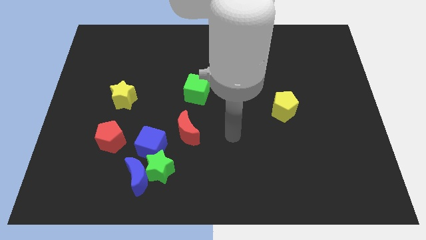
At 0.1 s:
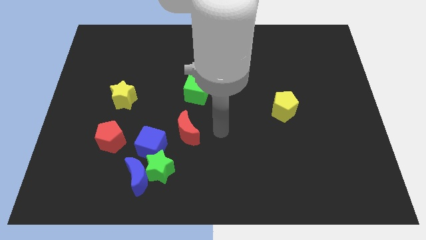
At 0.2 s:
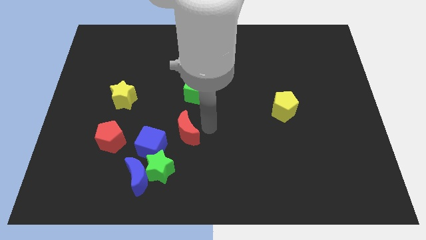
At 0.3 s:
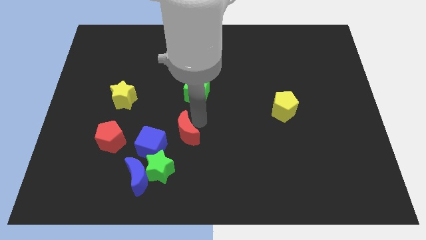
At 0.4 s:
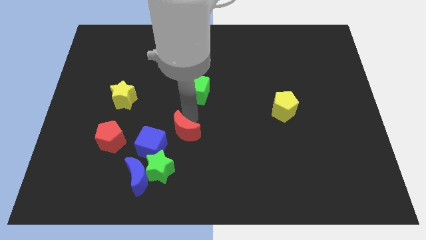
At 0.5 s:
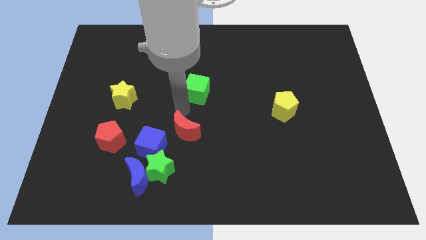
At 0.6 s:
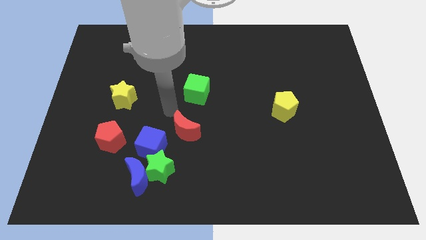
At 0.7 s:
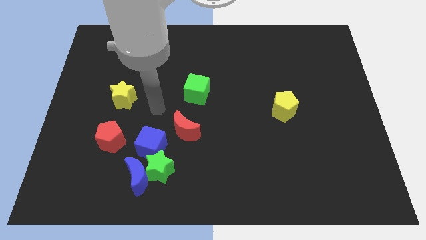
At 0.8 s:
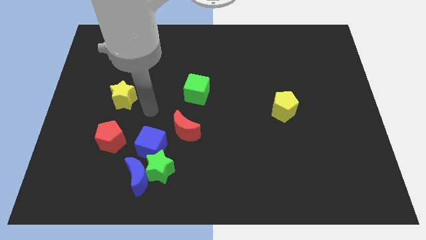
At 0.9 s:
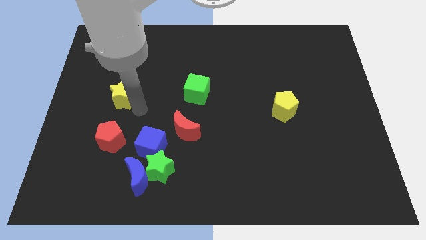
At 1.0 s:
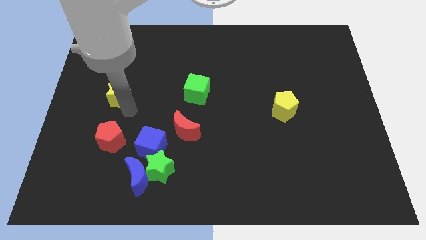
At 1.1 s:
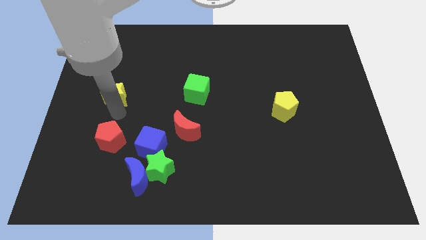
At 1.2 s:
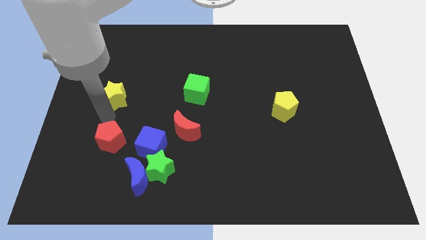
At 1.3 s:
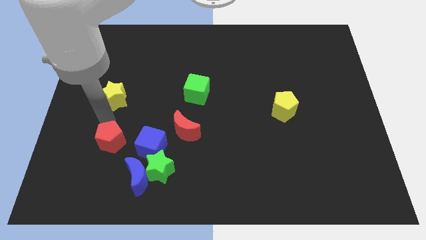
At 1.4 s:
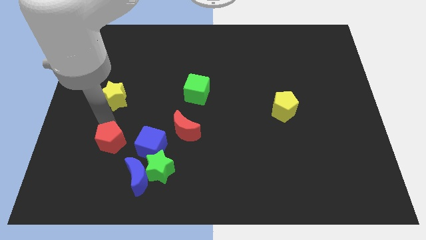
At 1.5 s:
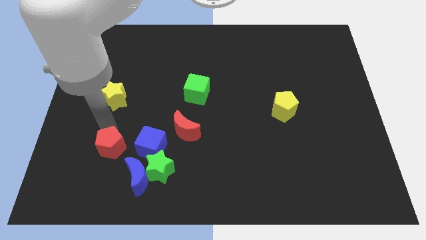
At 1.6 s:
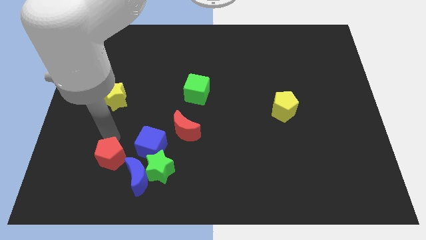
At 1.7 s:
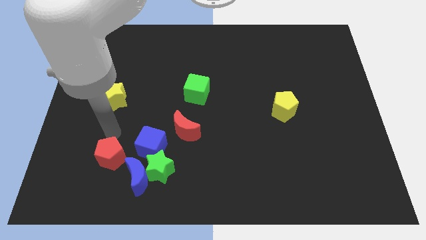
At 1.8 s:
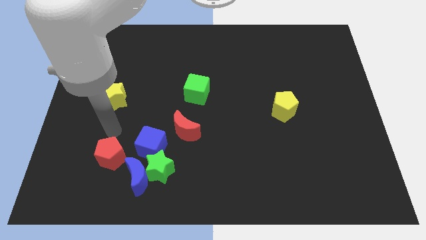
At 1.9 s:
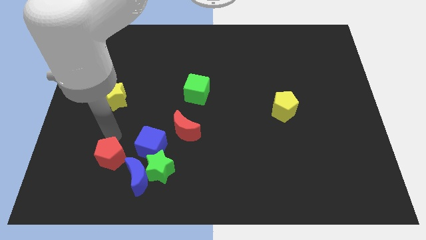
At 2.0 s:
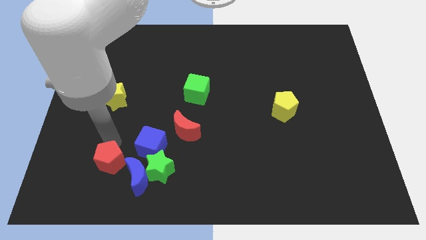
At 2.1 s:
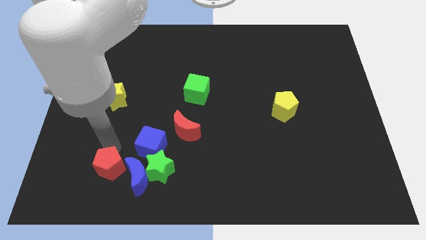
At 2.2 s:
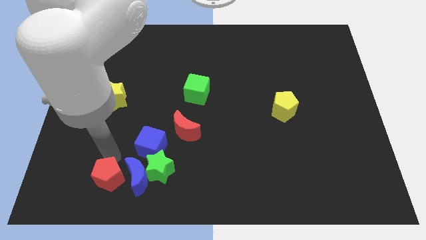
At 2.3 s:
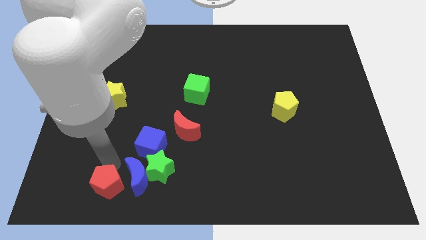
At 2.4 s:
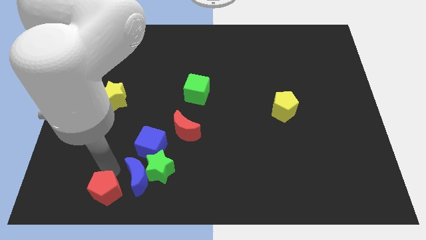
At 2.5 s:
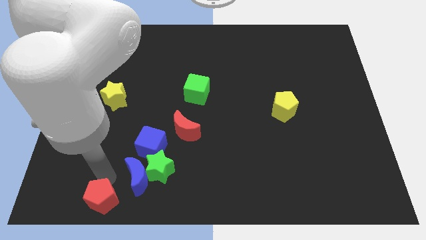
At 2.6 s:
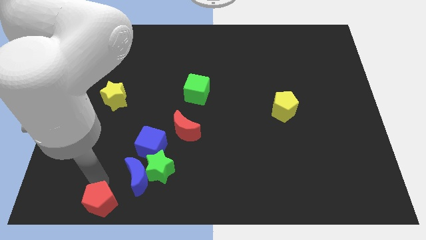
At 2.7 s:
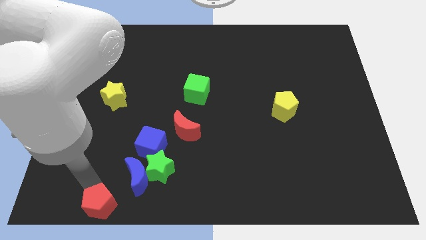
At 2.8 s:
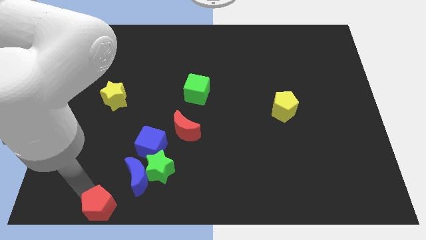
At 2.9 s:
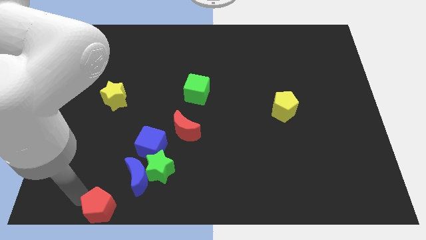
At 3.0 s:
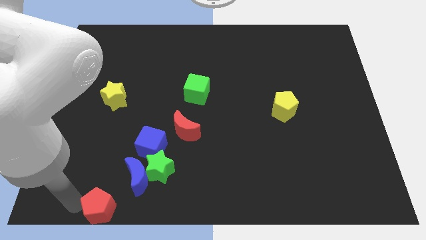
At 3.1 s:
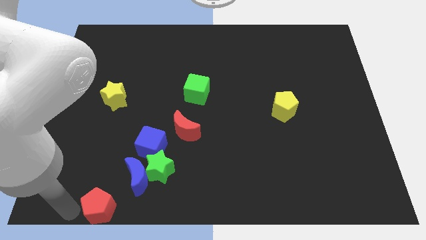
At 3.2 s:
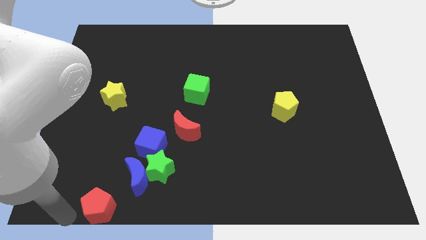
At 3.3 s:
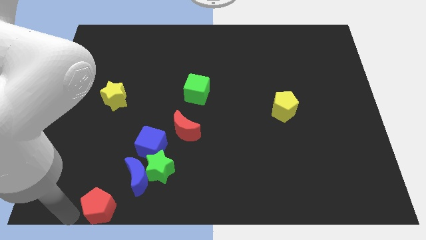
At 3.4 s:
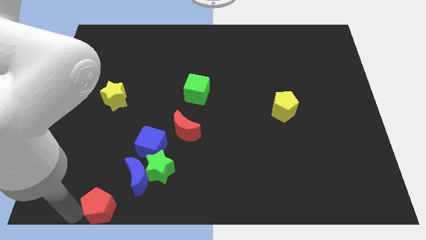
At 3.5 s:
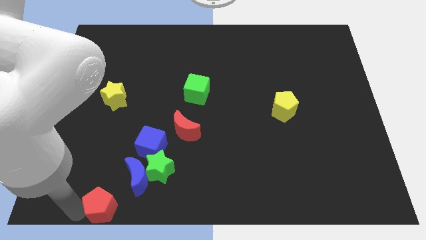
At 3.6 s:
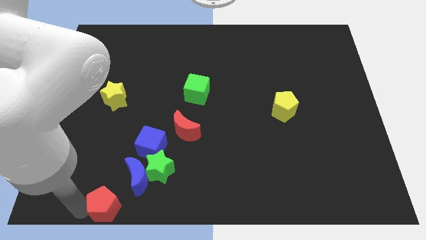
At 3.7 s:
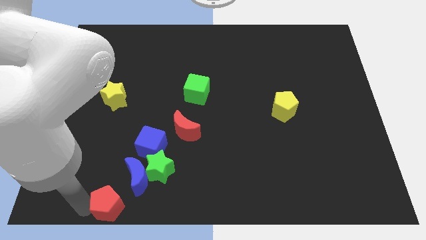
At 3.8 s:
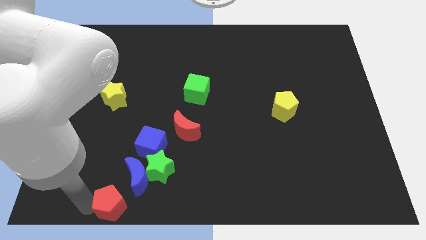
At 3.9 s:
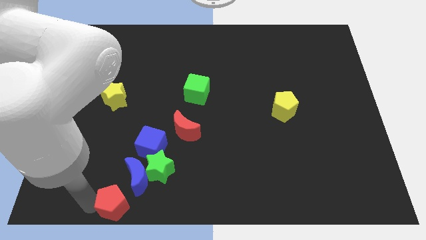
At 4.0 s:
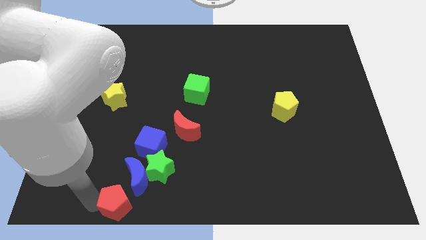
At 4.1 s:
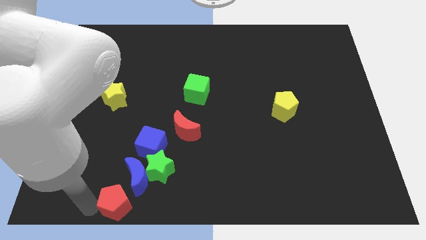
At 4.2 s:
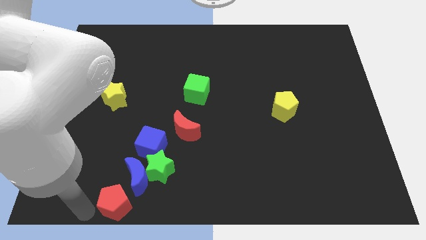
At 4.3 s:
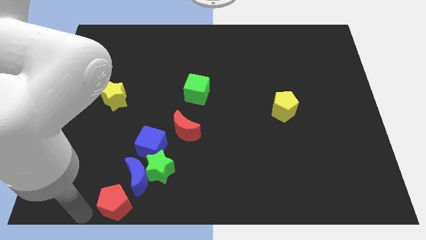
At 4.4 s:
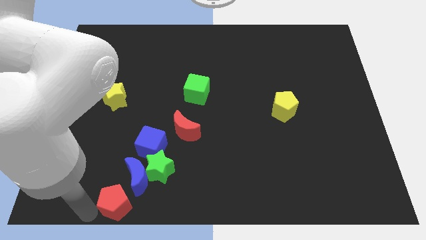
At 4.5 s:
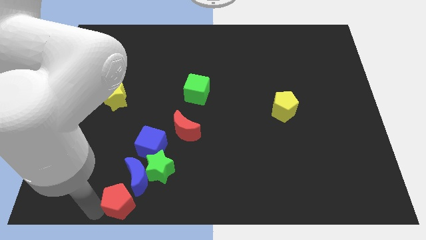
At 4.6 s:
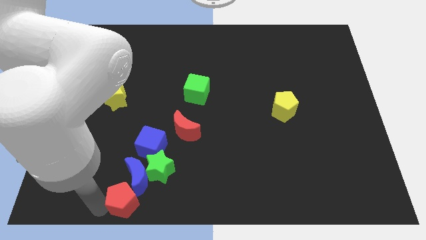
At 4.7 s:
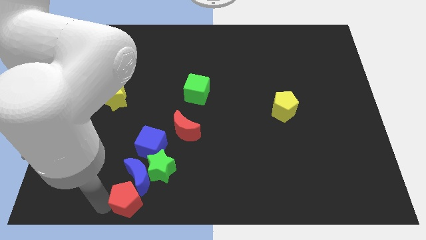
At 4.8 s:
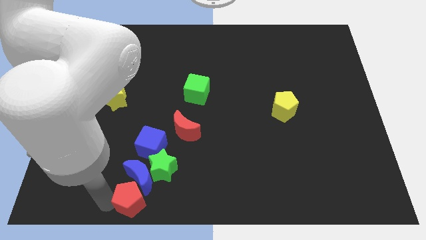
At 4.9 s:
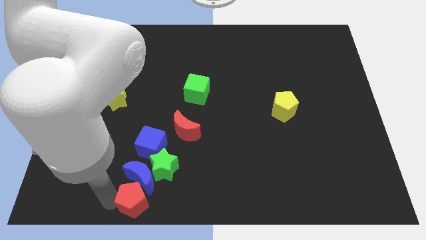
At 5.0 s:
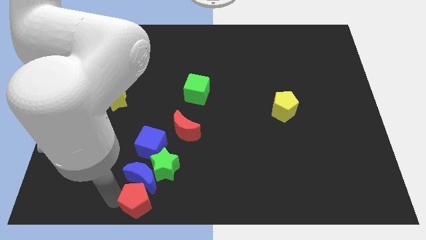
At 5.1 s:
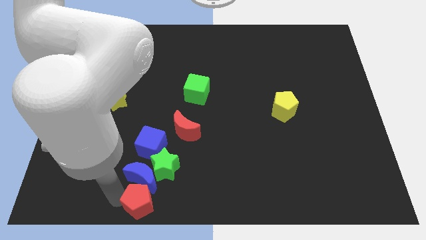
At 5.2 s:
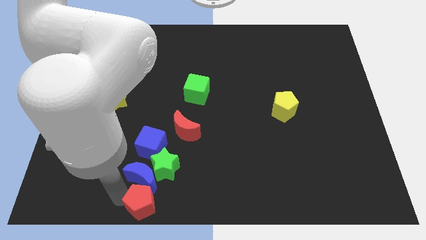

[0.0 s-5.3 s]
push the red pentagon to the bottom side

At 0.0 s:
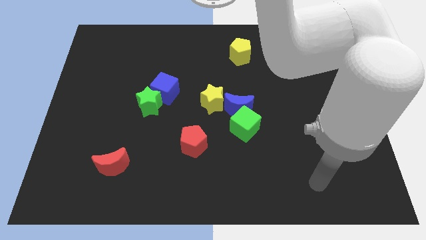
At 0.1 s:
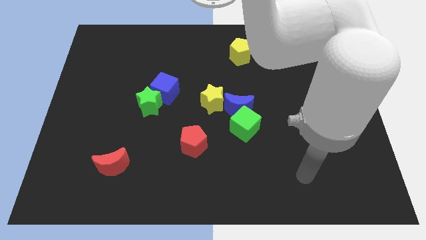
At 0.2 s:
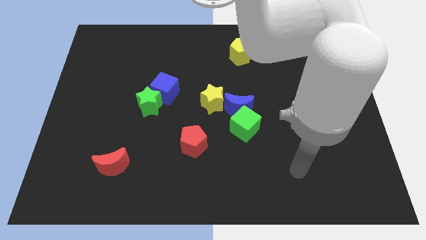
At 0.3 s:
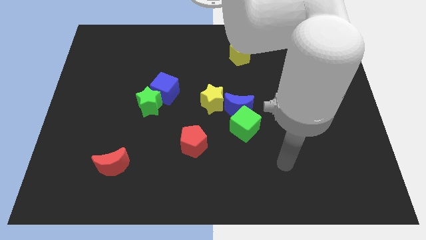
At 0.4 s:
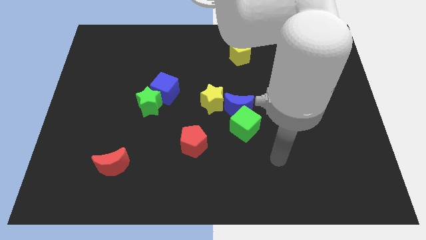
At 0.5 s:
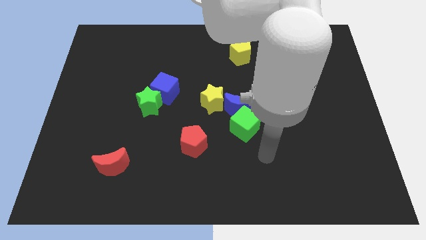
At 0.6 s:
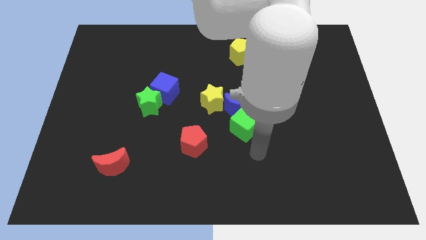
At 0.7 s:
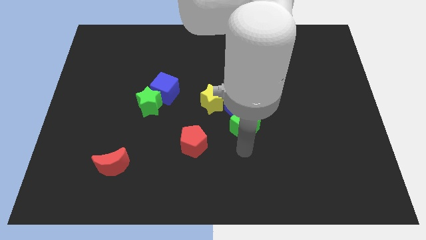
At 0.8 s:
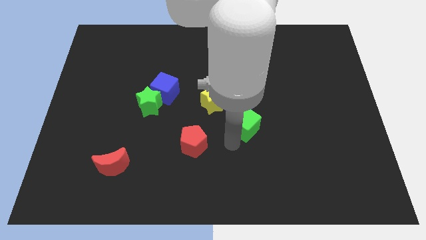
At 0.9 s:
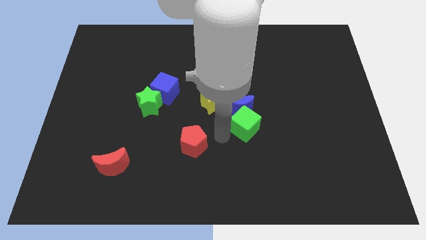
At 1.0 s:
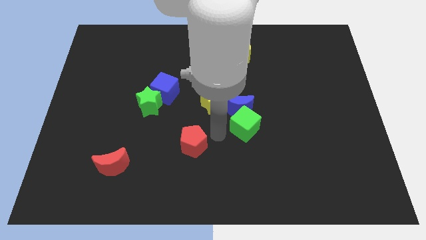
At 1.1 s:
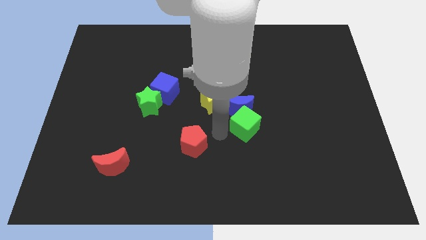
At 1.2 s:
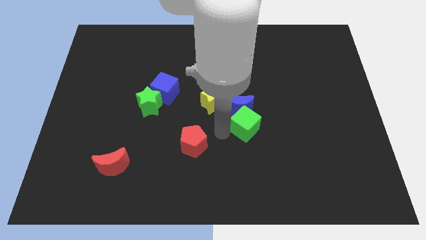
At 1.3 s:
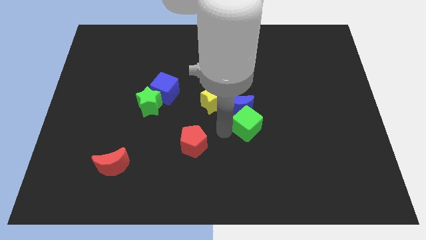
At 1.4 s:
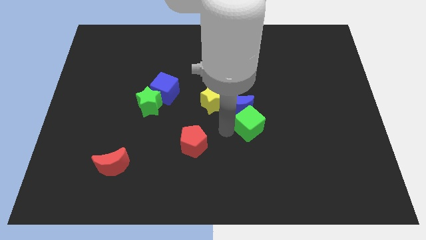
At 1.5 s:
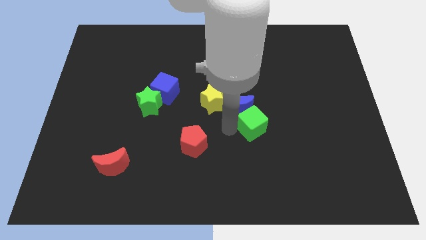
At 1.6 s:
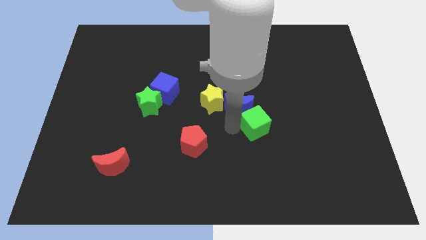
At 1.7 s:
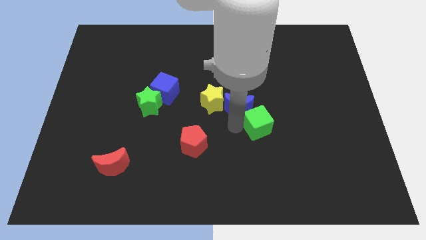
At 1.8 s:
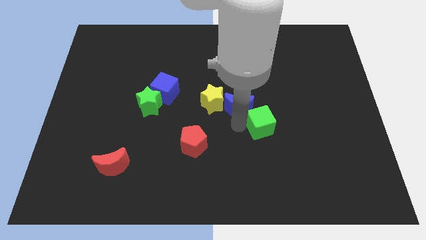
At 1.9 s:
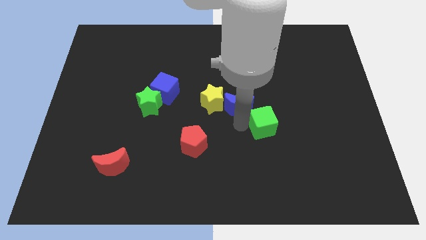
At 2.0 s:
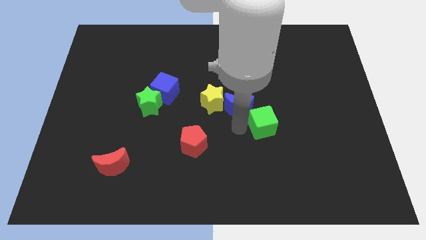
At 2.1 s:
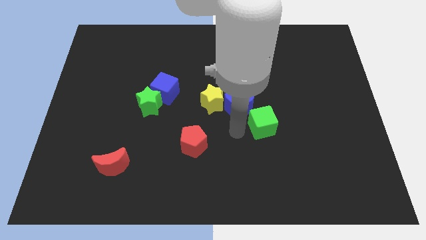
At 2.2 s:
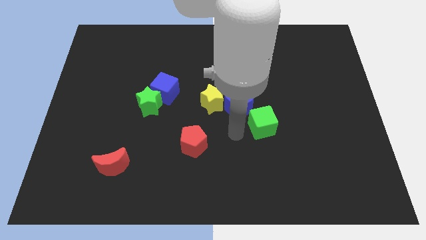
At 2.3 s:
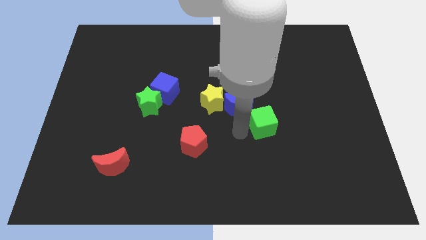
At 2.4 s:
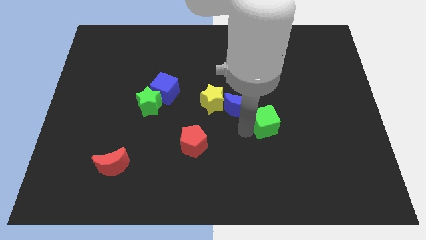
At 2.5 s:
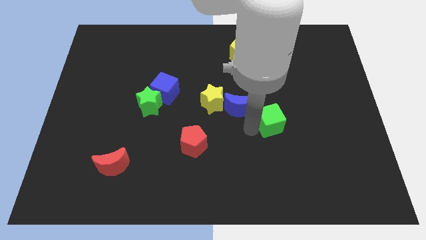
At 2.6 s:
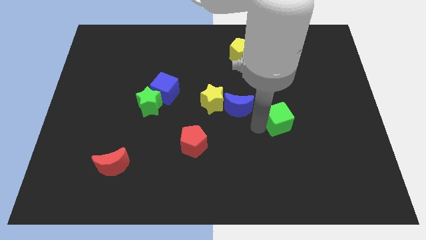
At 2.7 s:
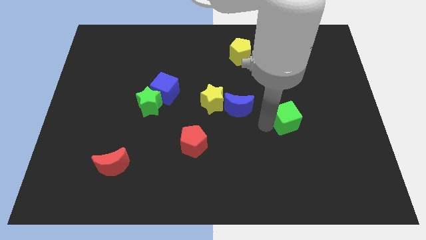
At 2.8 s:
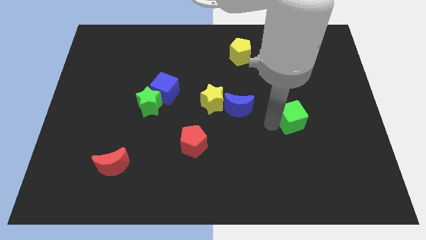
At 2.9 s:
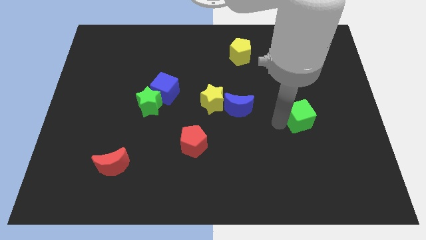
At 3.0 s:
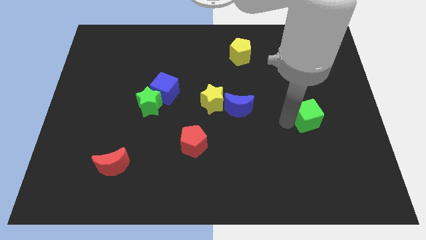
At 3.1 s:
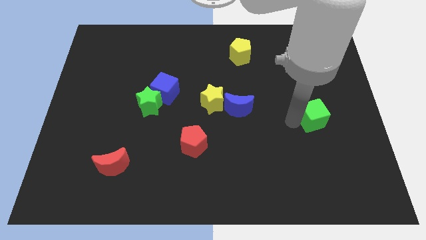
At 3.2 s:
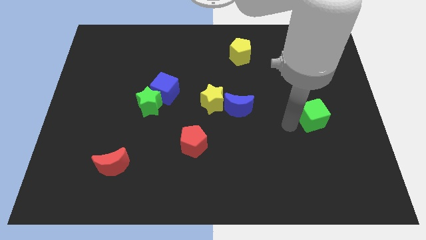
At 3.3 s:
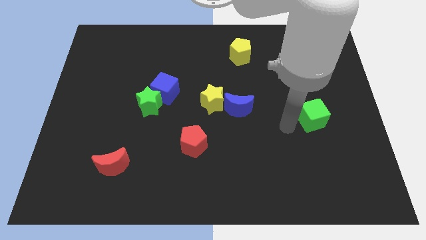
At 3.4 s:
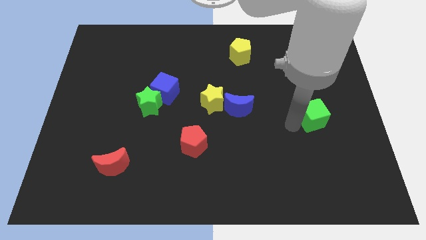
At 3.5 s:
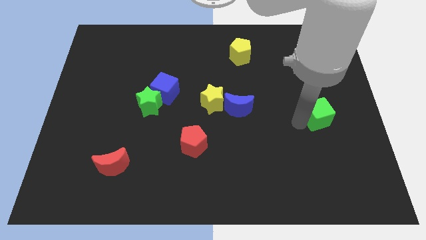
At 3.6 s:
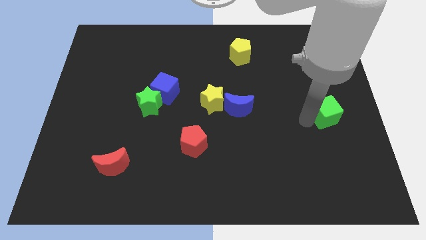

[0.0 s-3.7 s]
push the green cube to the right side of the board
